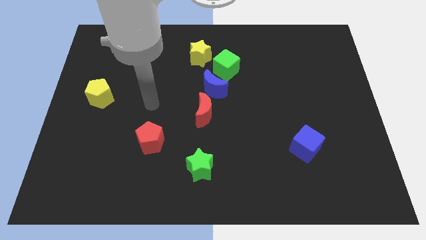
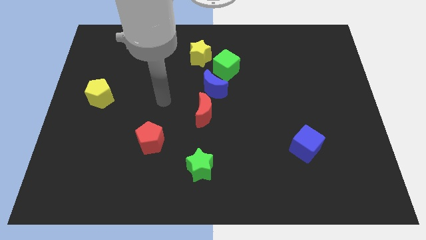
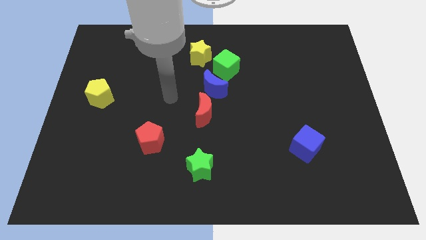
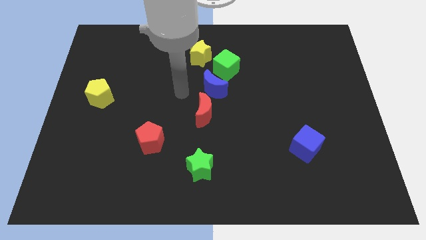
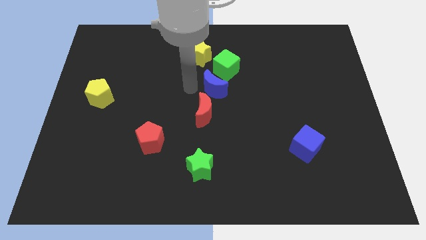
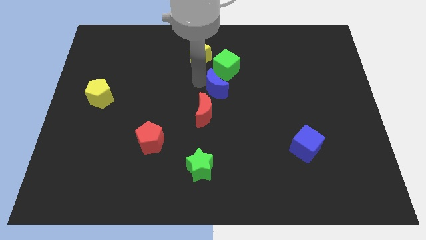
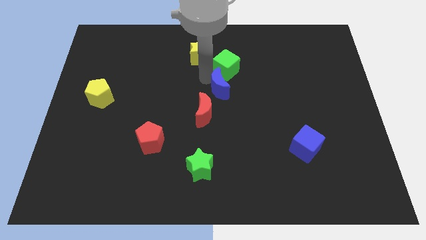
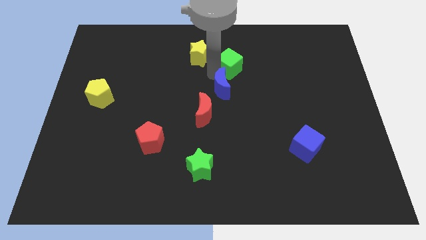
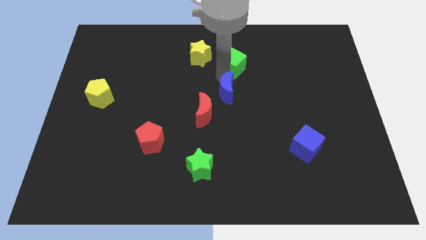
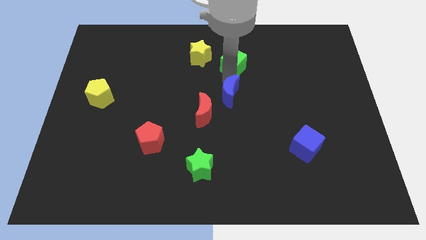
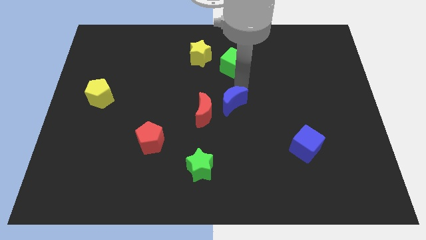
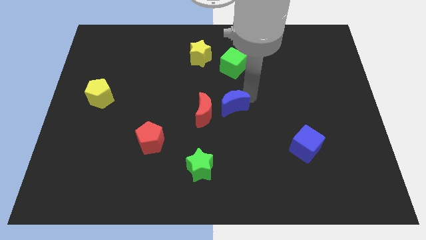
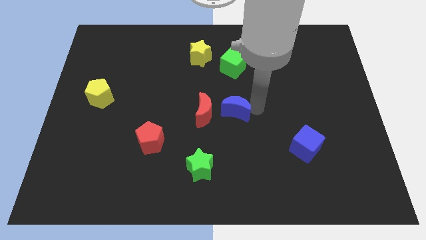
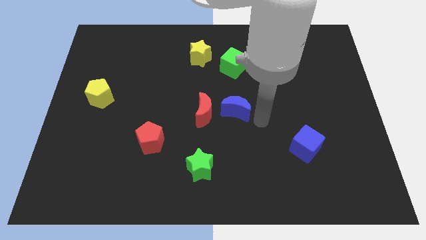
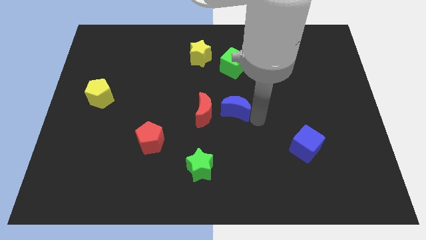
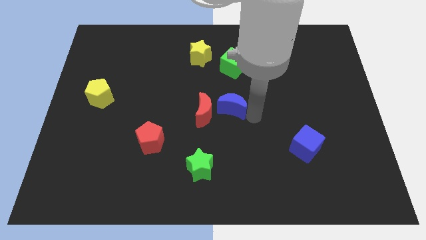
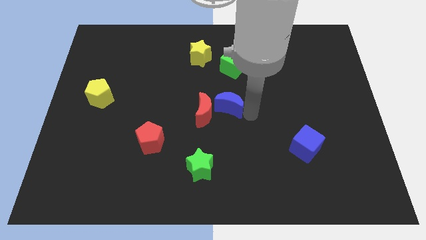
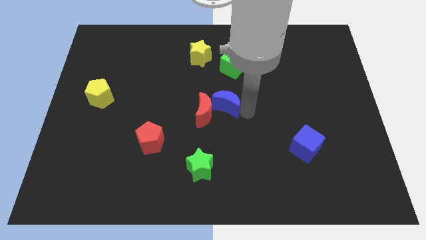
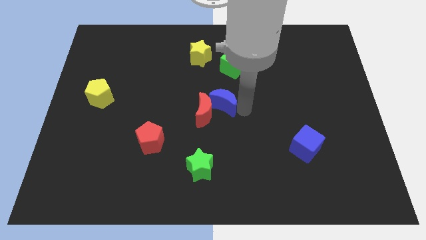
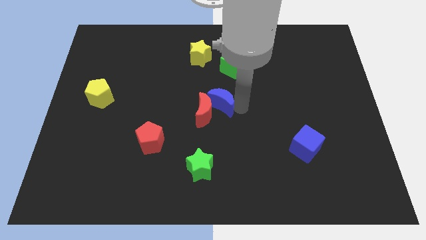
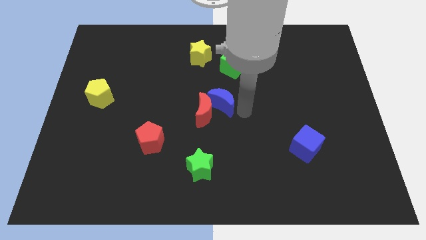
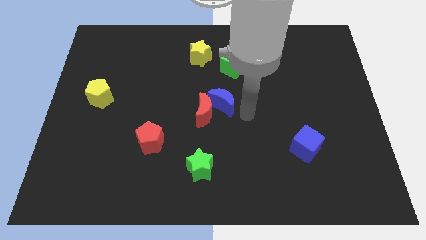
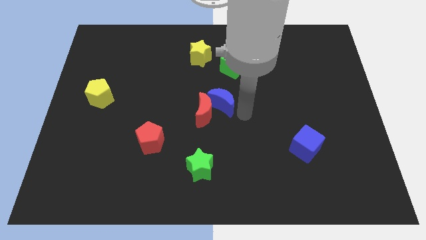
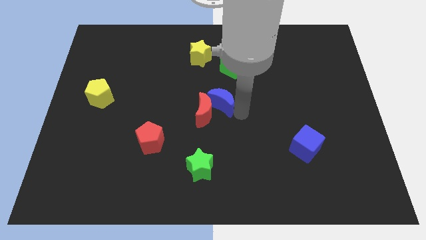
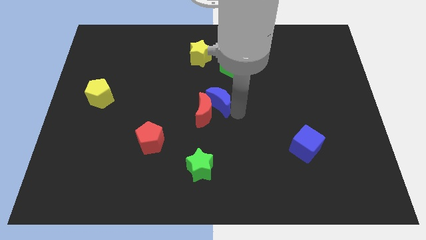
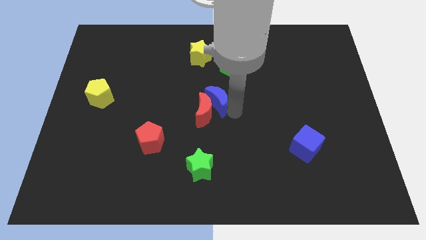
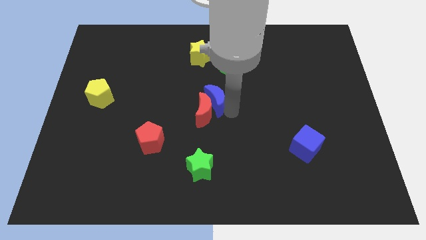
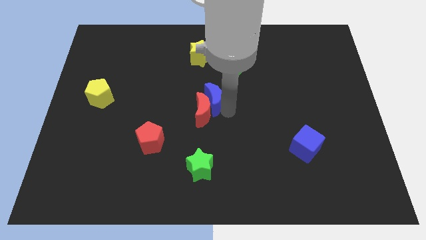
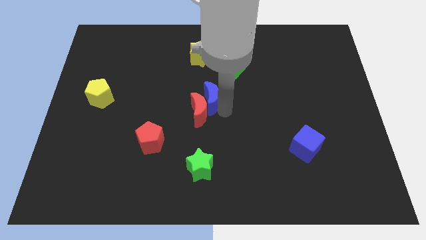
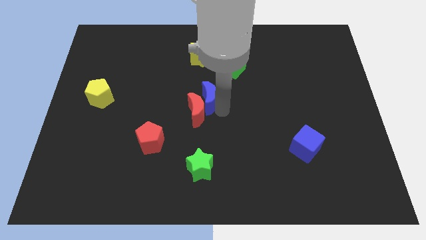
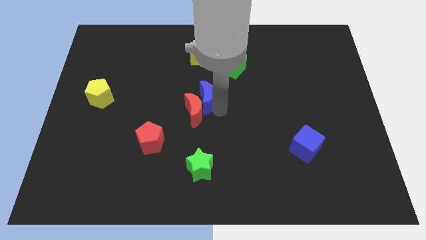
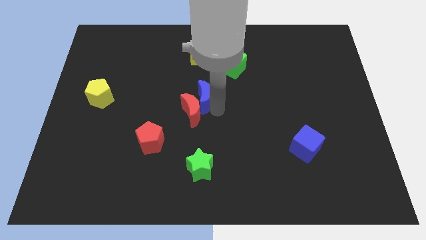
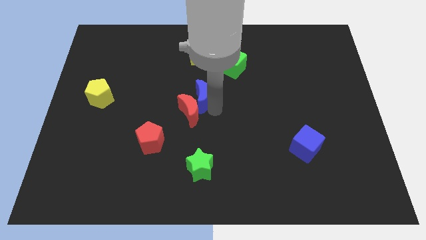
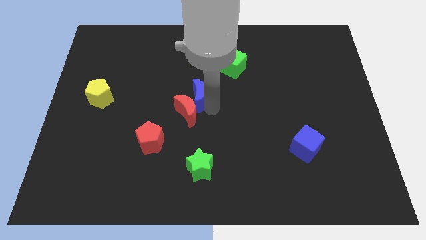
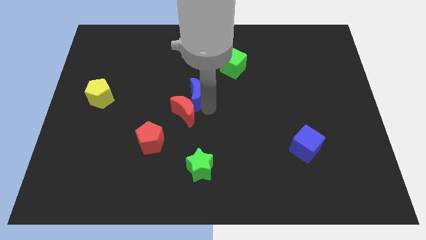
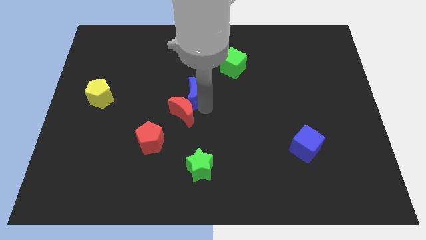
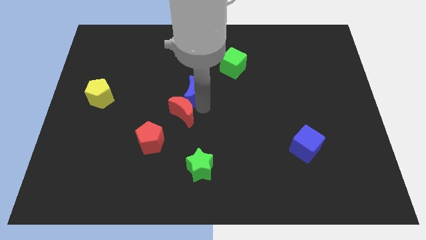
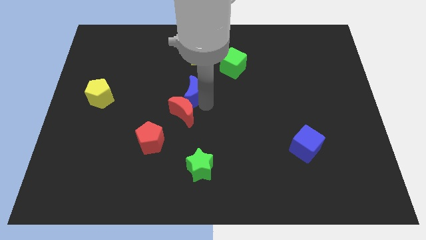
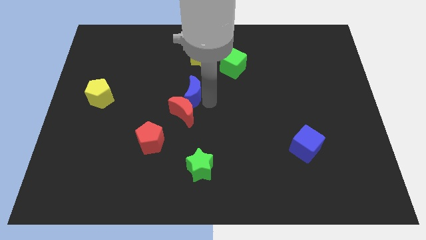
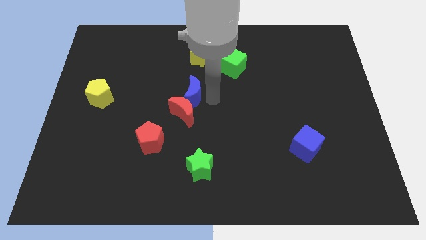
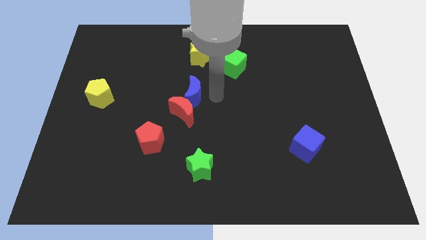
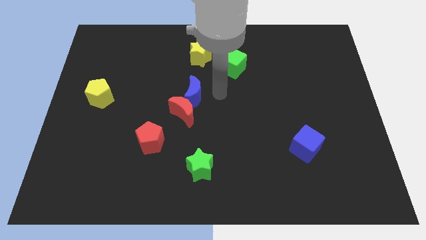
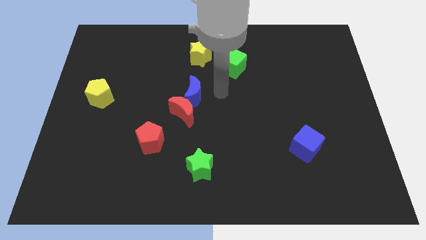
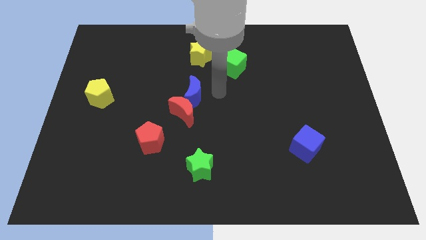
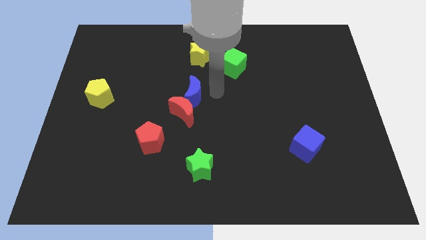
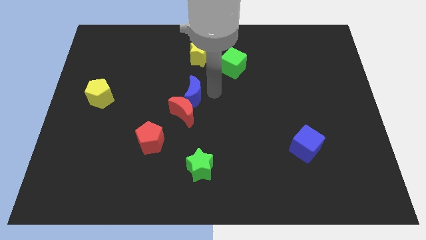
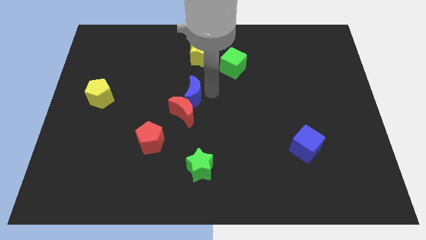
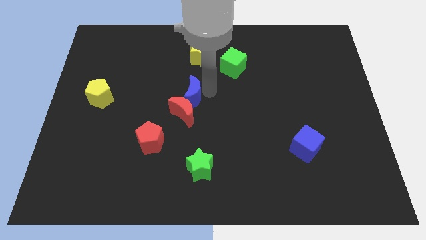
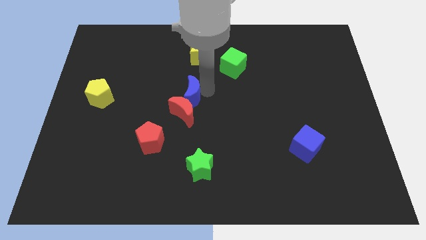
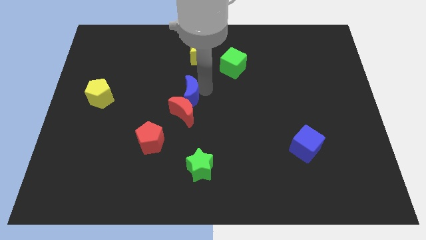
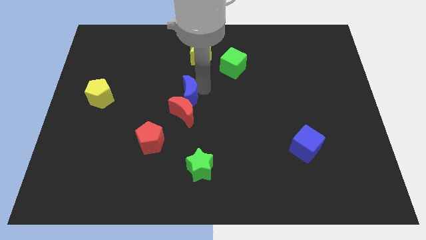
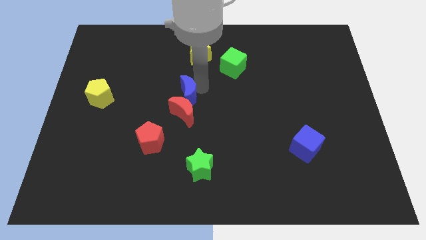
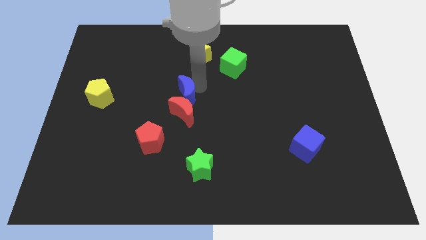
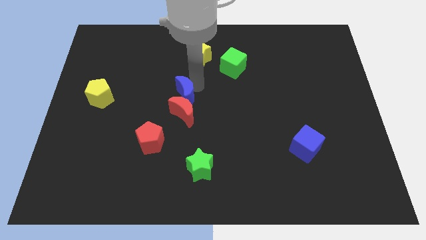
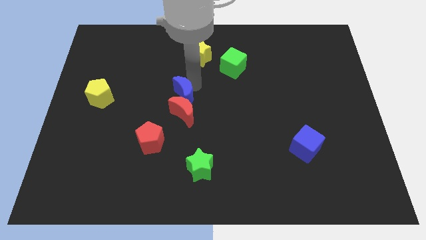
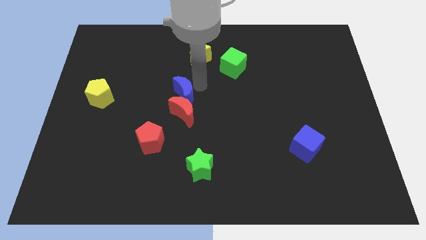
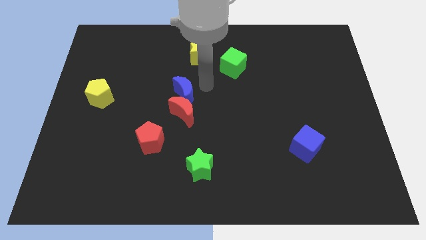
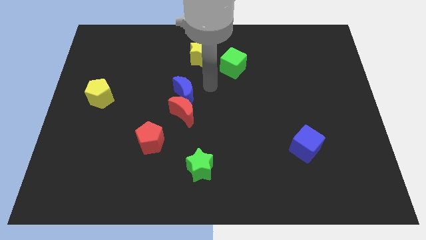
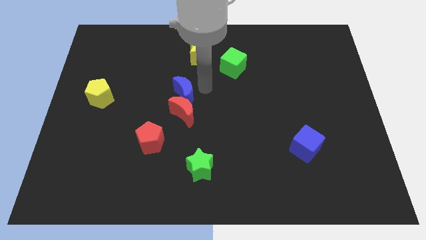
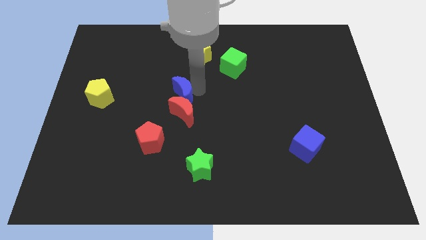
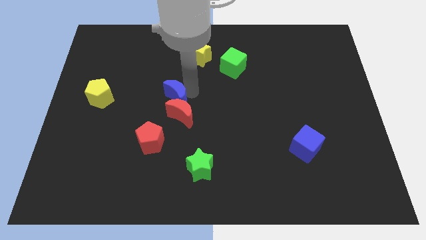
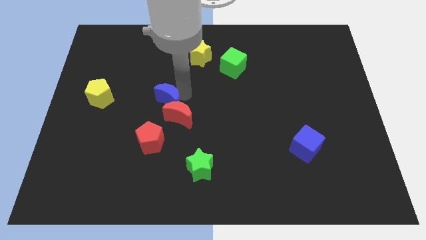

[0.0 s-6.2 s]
push the blue moon to the top side of the red pentagon

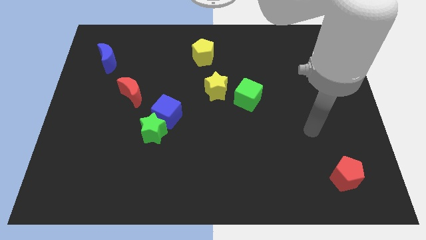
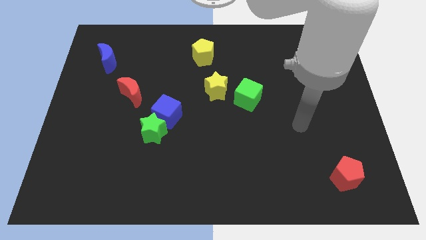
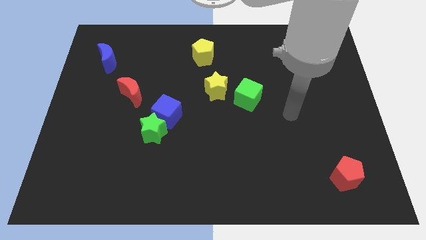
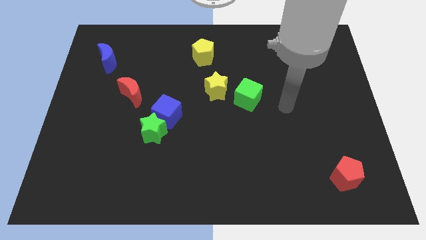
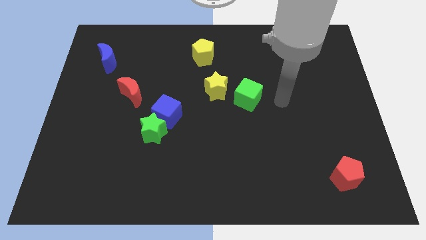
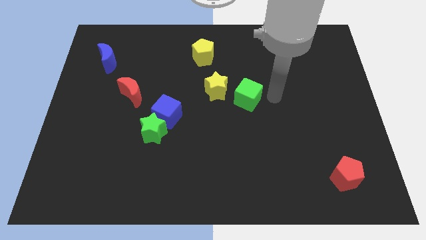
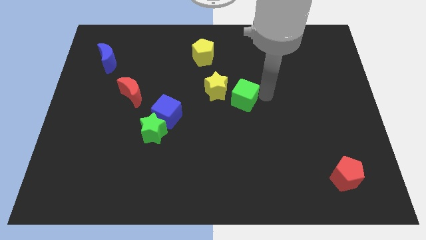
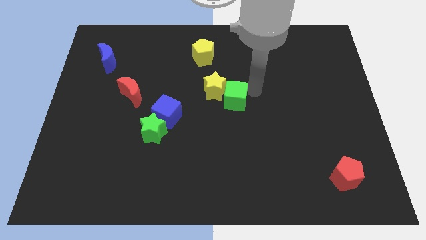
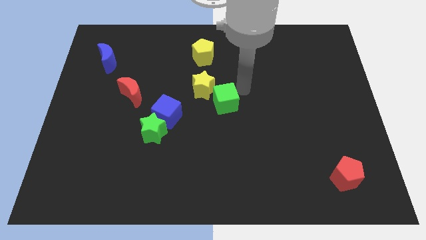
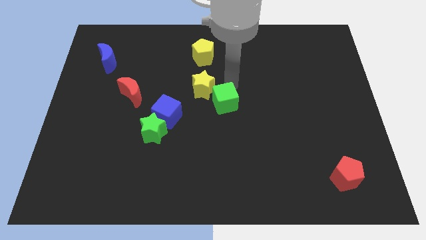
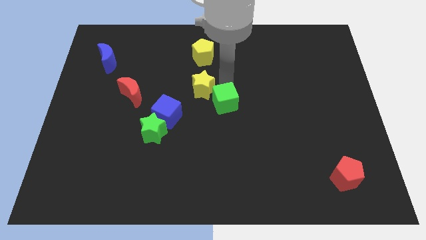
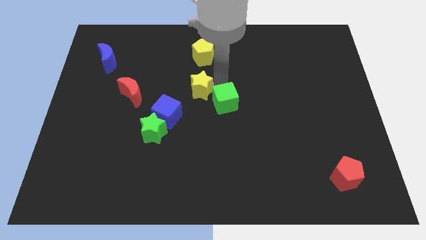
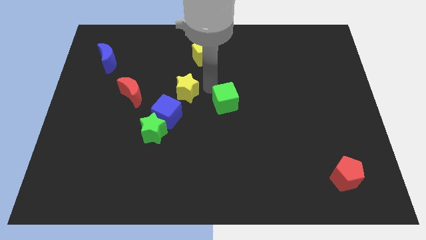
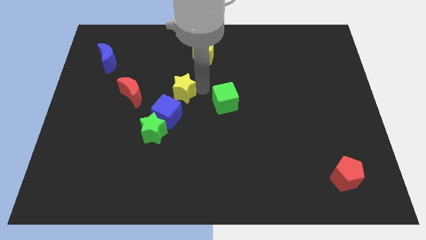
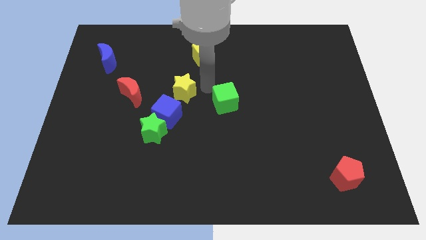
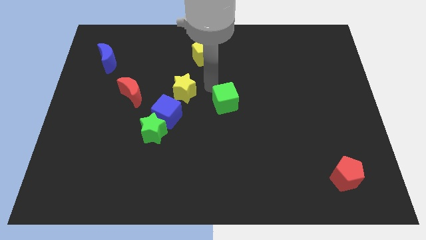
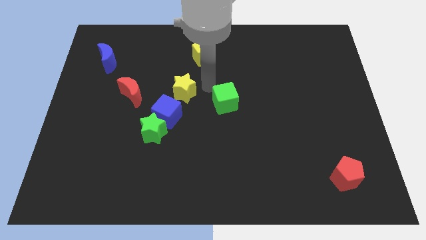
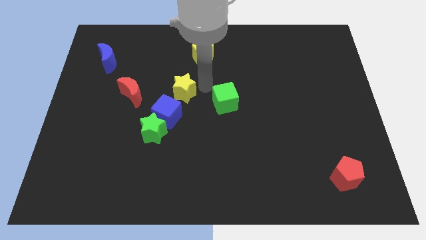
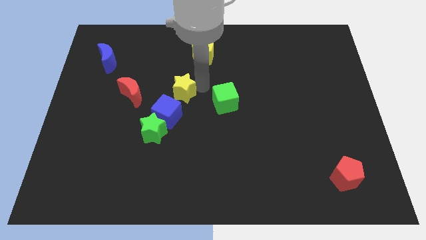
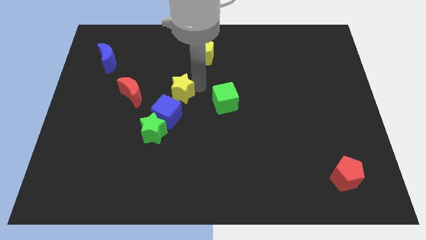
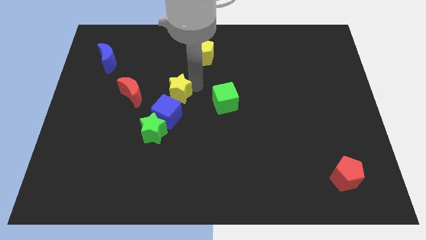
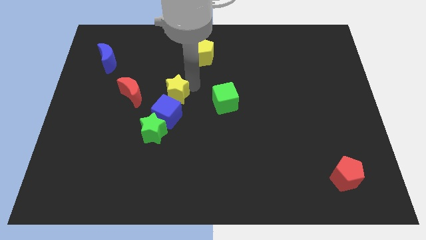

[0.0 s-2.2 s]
move the yellow star to the top of the green star
